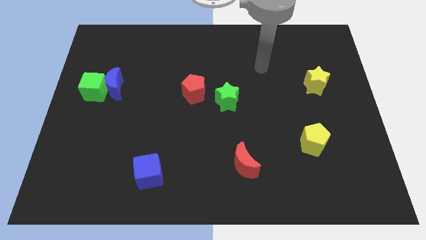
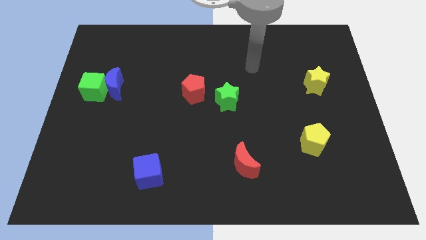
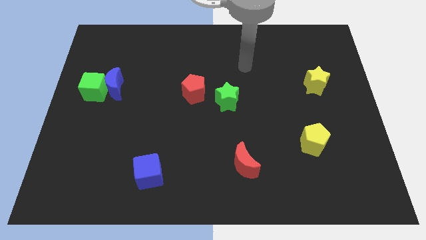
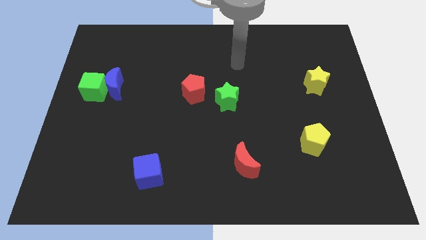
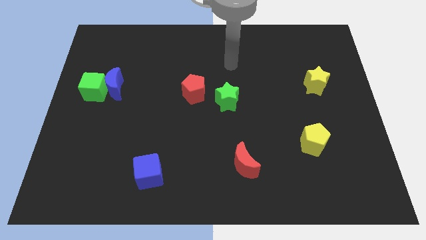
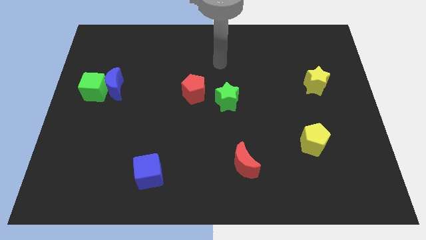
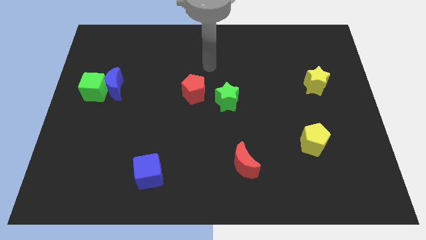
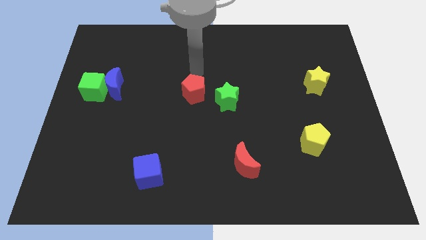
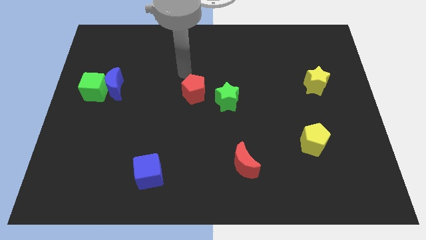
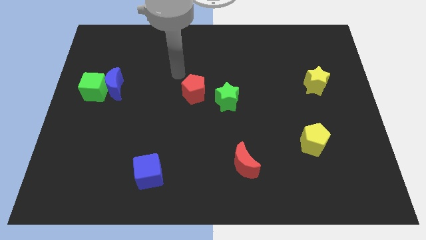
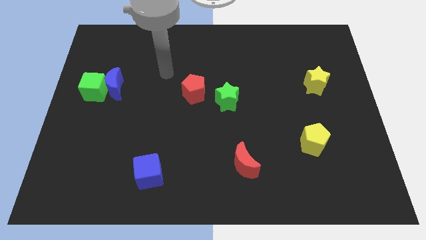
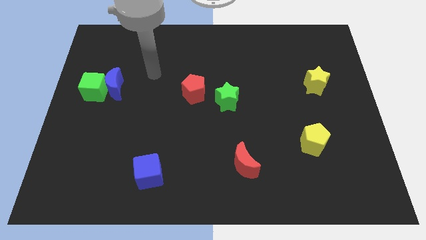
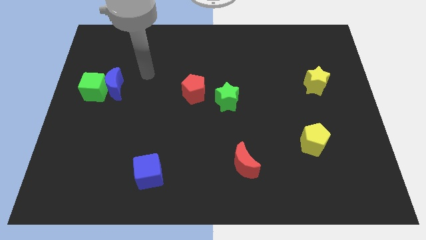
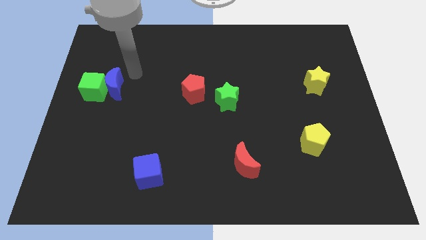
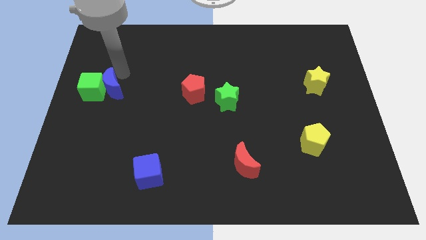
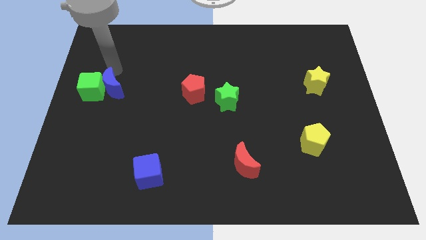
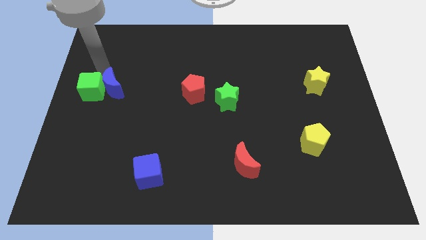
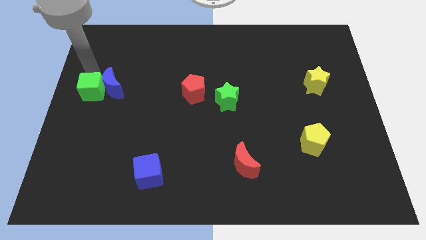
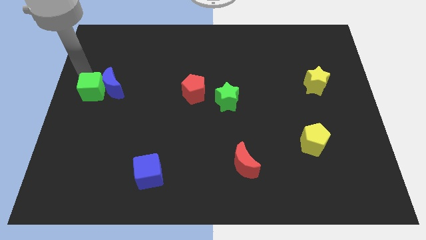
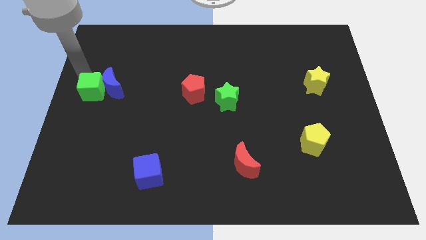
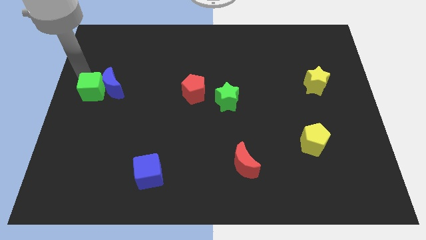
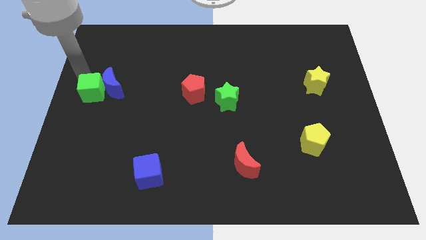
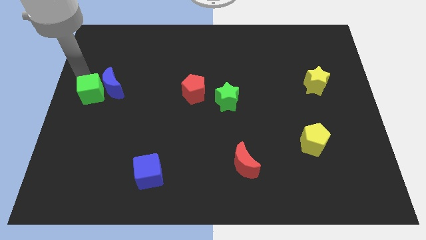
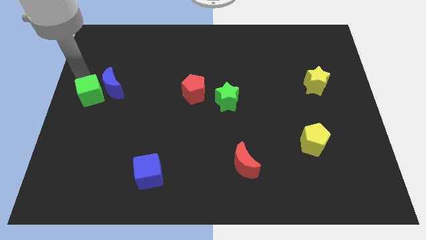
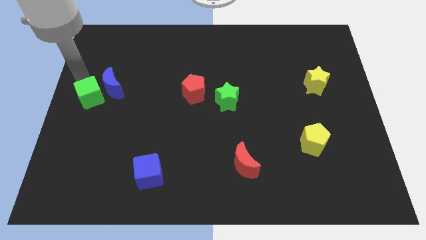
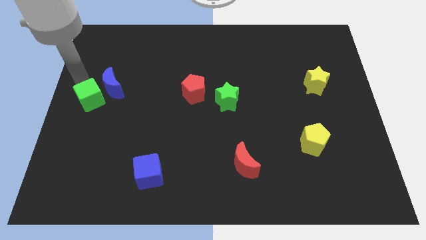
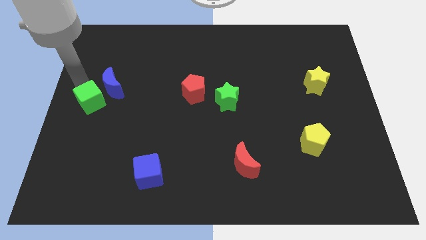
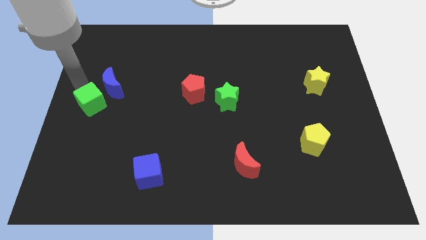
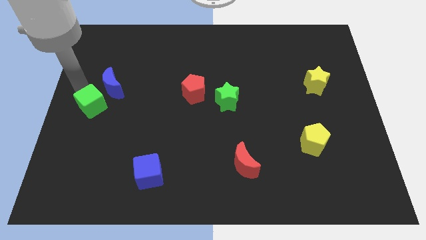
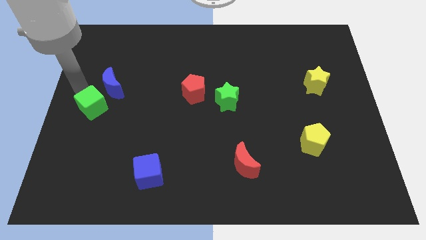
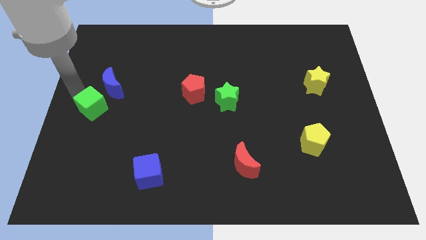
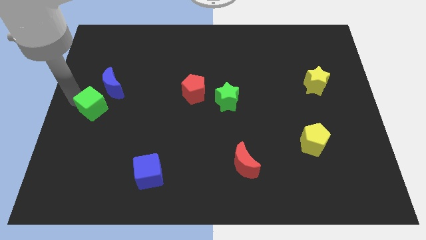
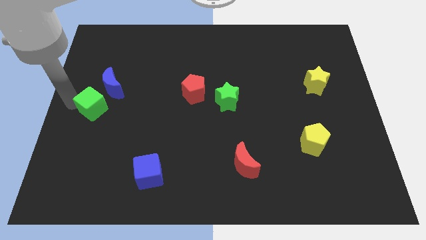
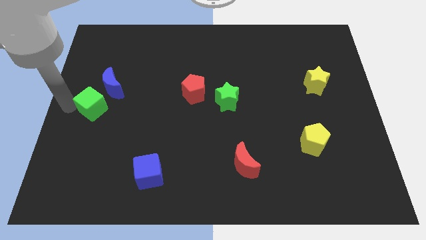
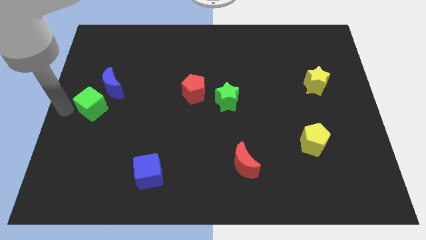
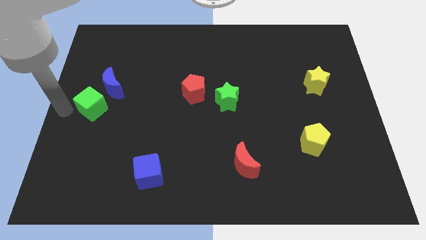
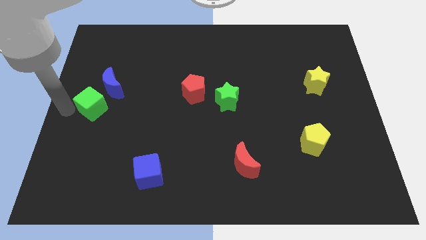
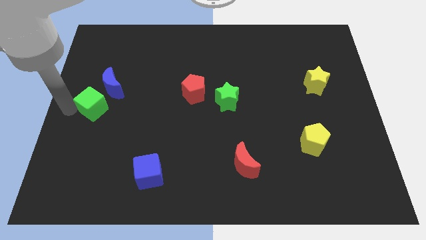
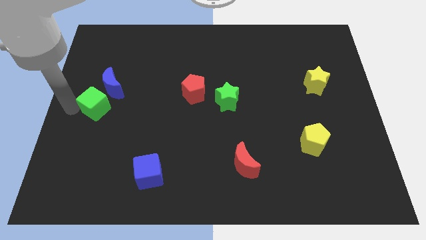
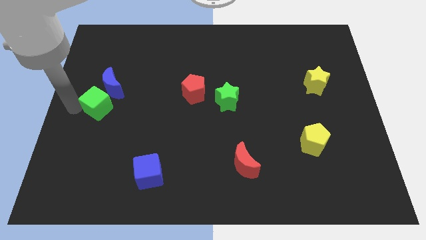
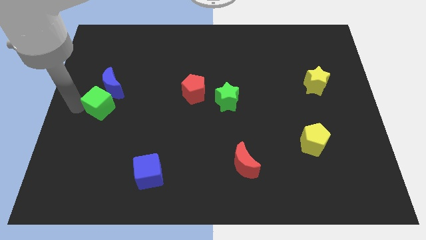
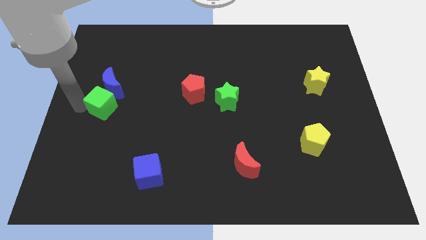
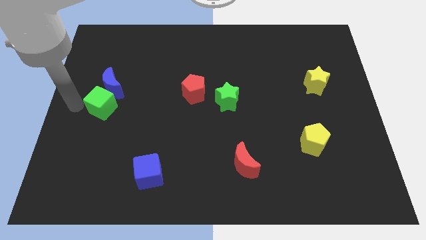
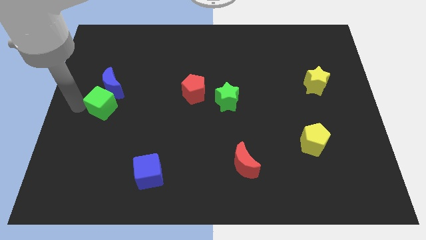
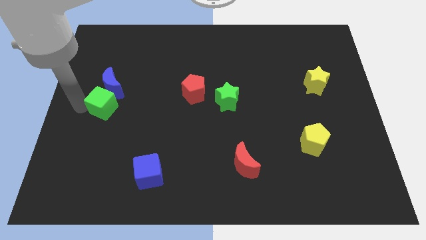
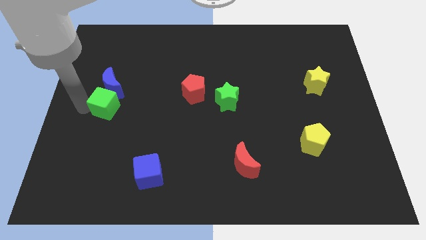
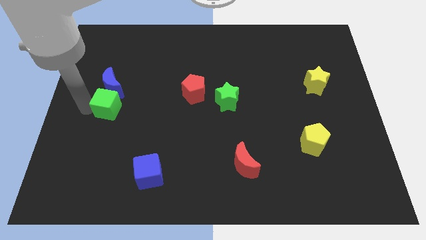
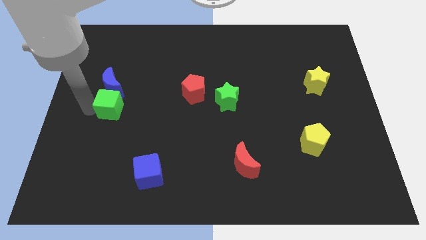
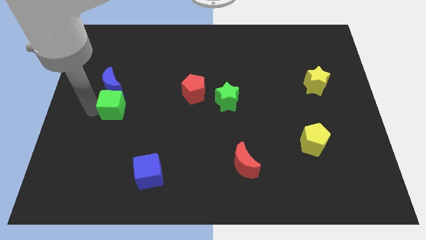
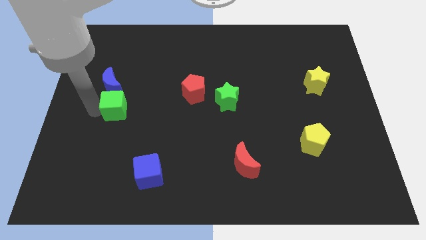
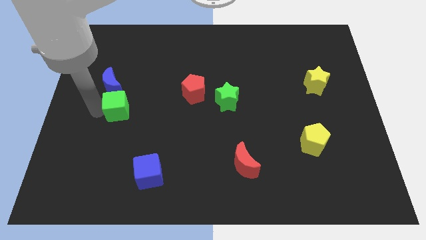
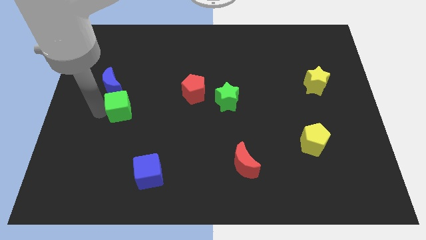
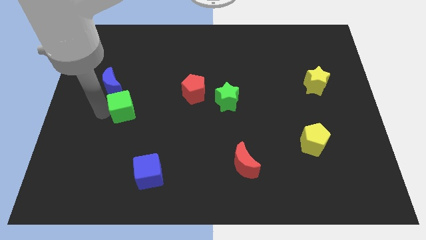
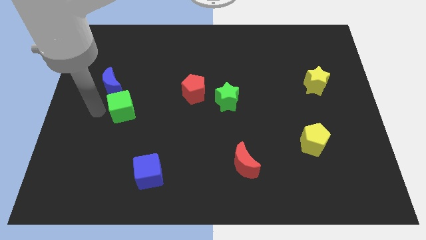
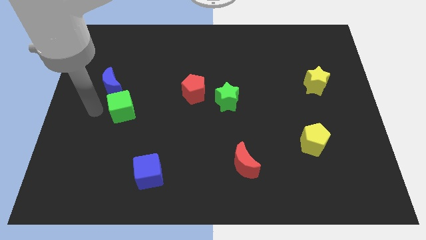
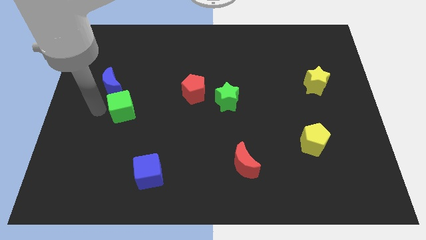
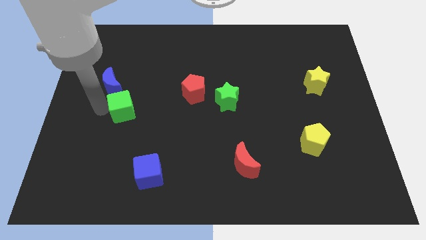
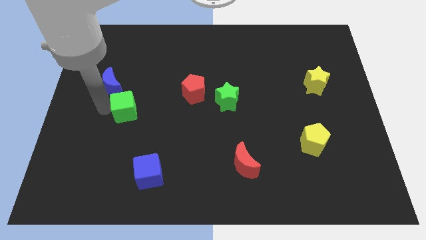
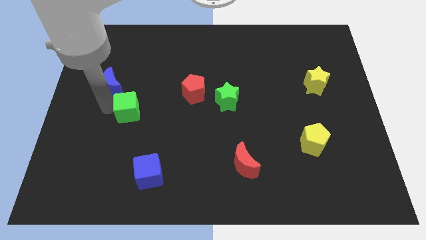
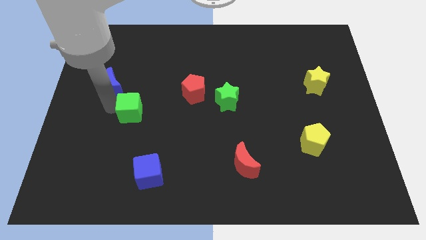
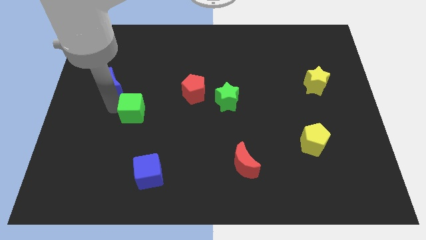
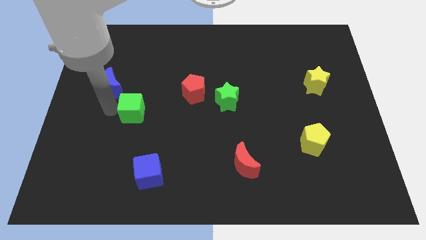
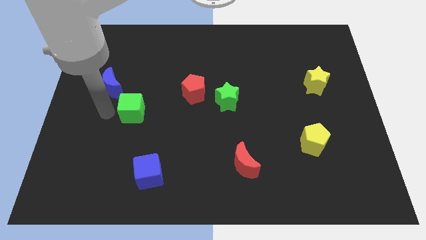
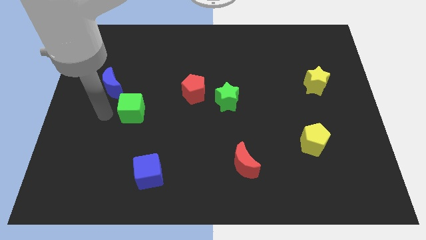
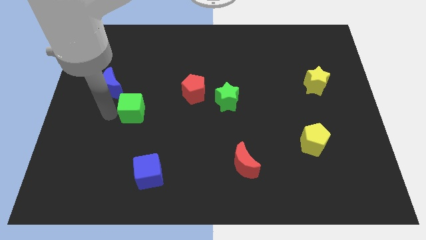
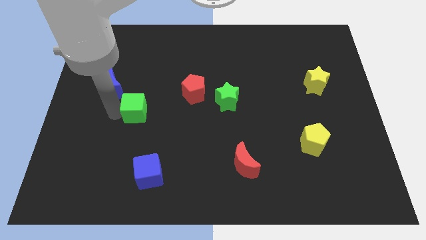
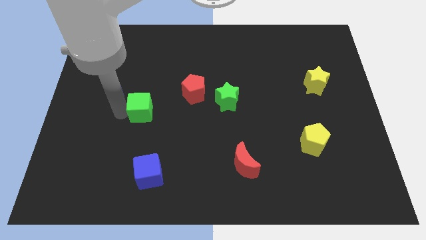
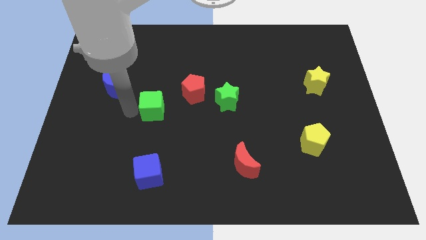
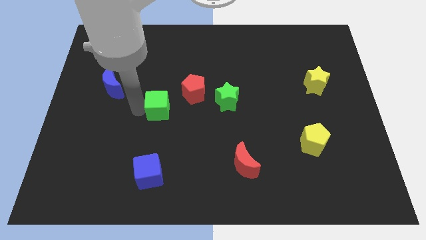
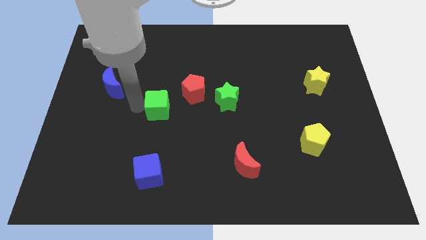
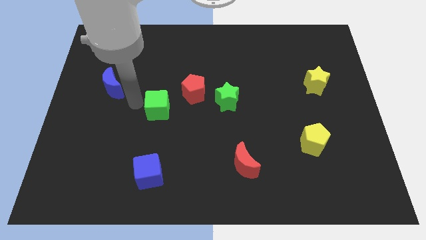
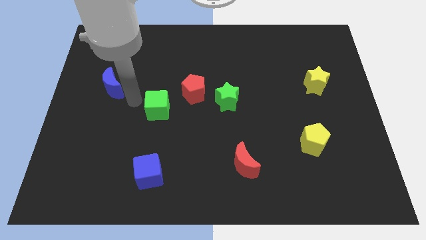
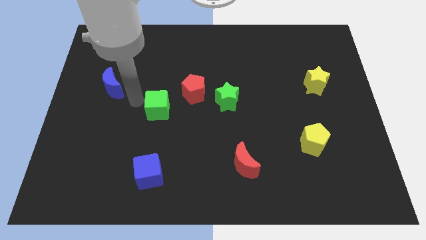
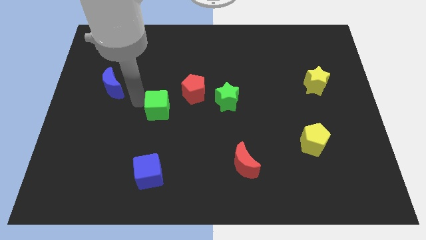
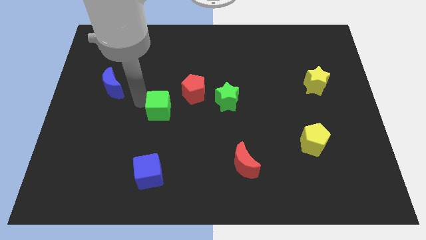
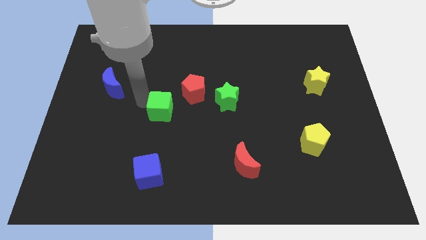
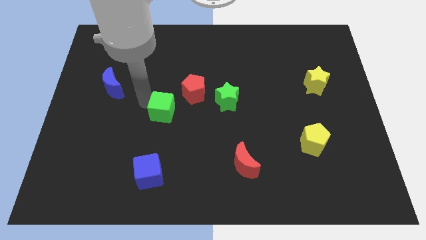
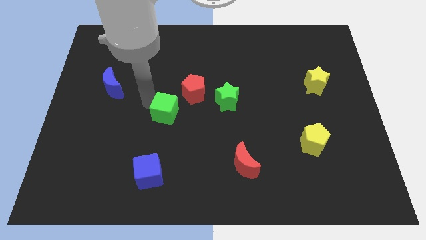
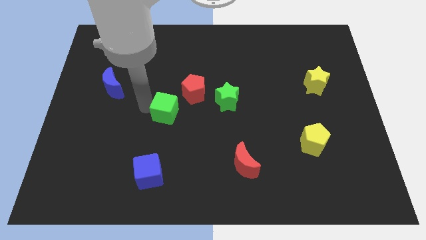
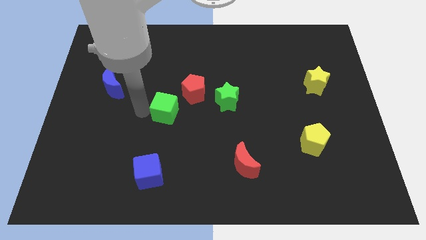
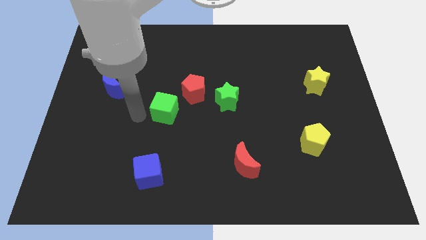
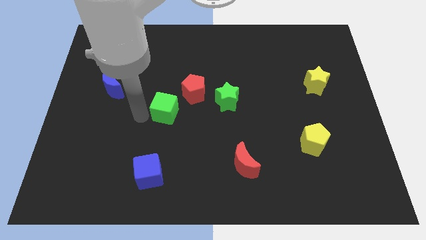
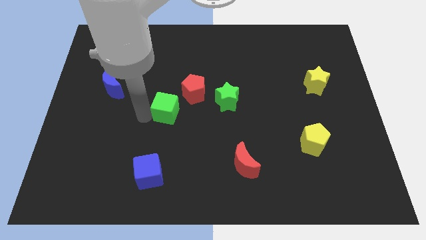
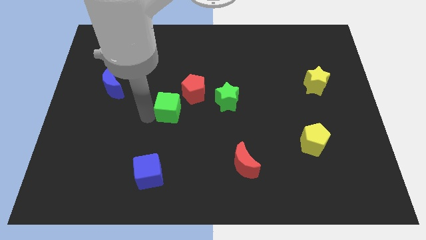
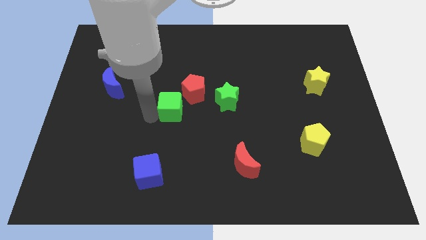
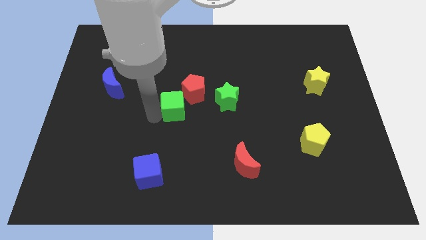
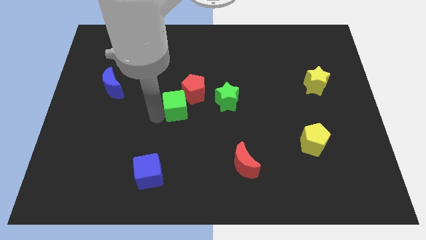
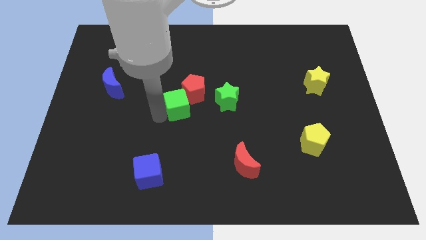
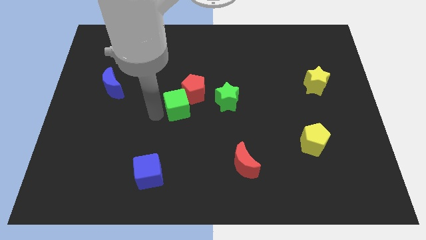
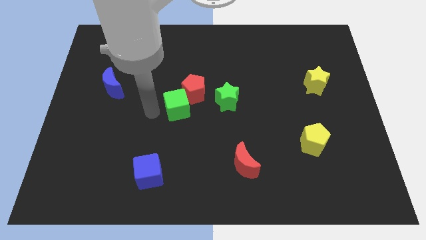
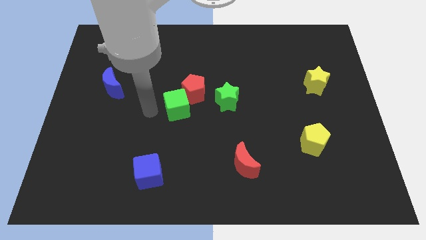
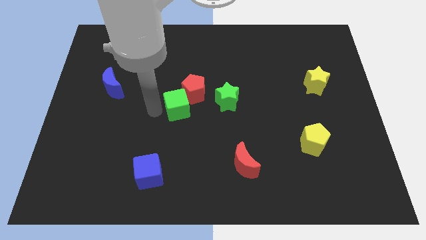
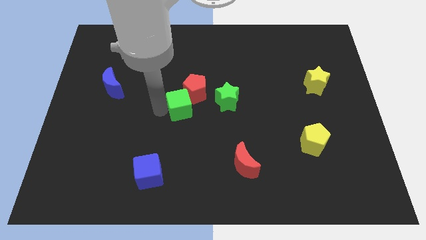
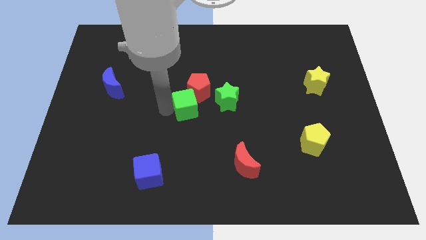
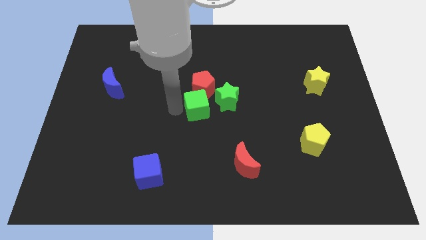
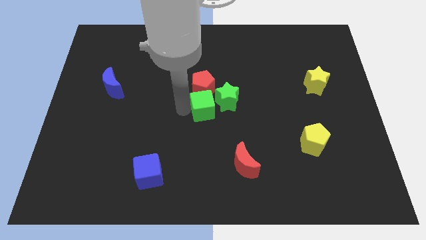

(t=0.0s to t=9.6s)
push the green cube close to the green star
